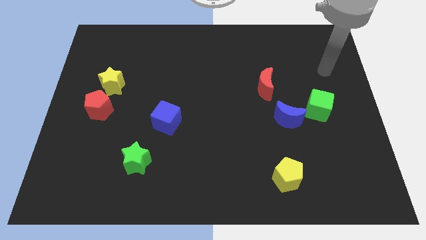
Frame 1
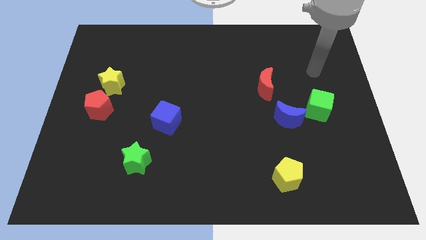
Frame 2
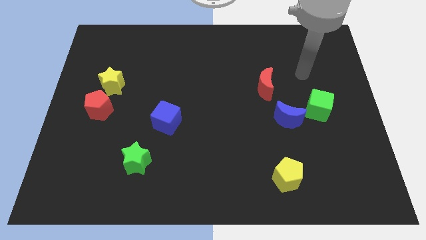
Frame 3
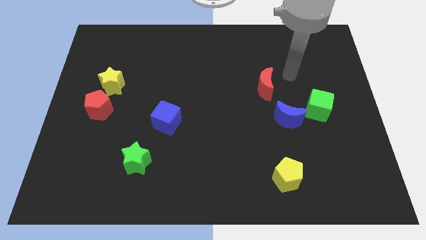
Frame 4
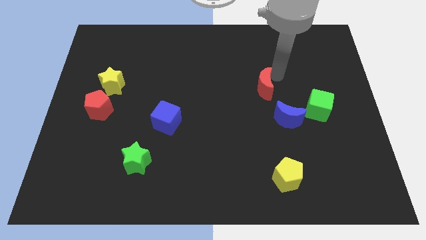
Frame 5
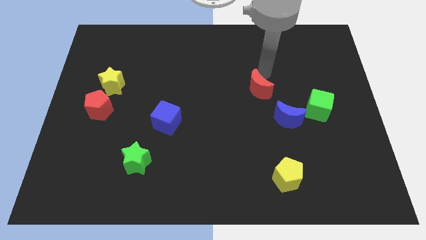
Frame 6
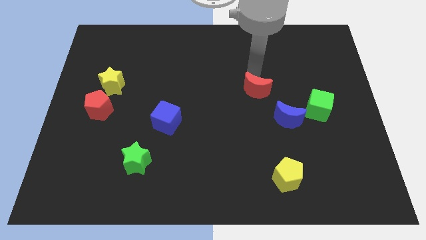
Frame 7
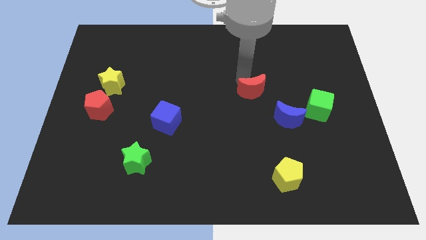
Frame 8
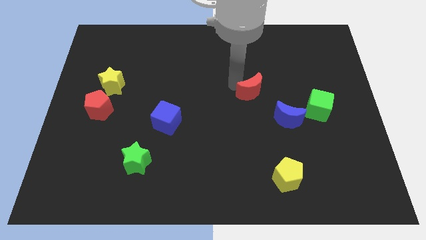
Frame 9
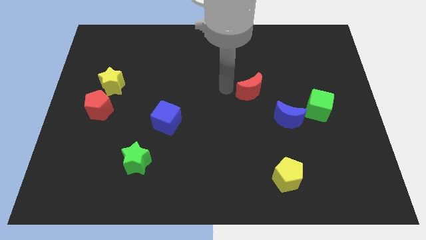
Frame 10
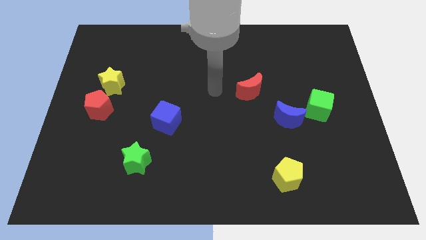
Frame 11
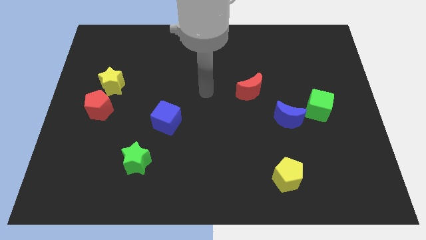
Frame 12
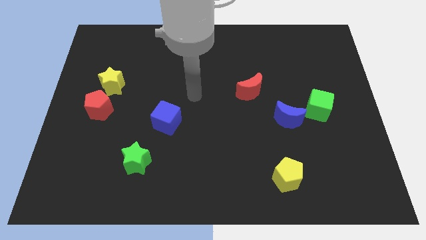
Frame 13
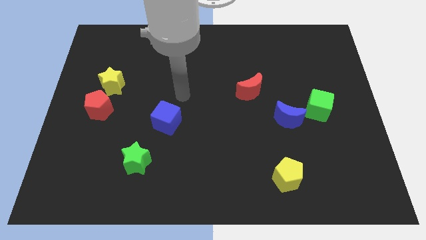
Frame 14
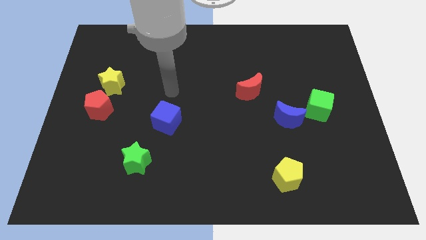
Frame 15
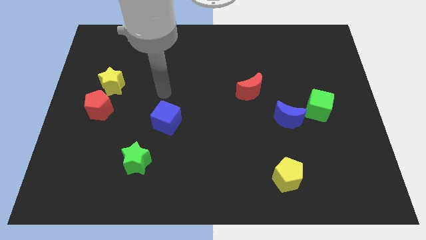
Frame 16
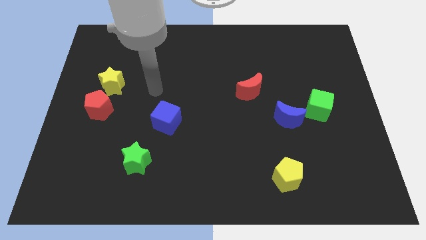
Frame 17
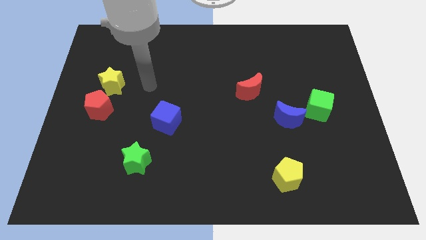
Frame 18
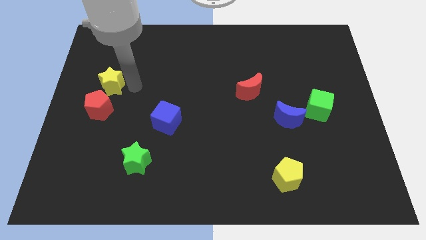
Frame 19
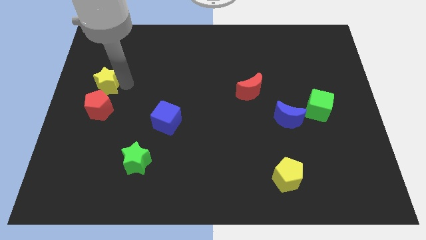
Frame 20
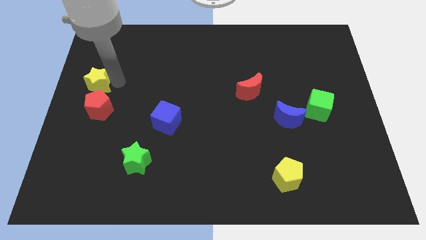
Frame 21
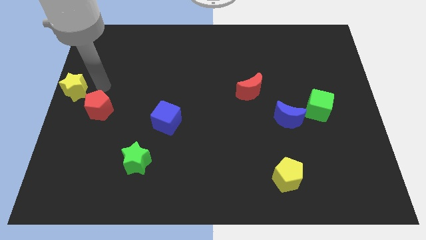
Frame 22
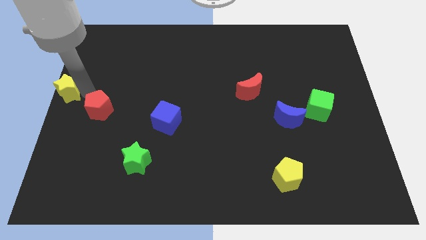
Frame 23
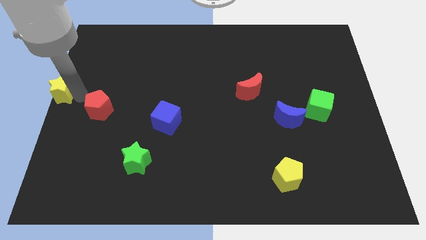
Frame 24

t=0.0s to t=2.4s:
move the red pentagon away from the yellow star

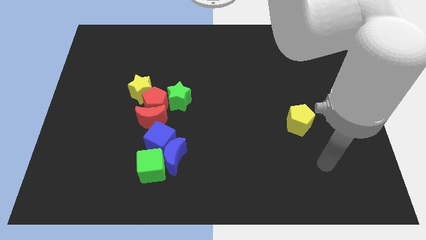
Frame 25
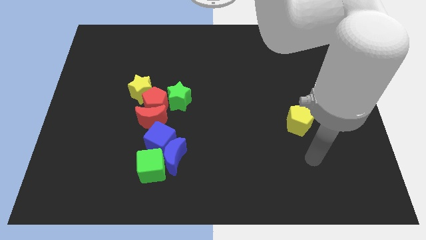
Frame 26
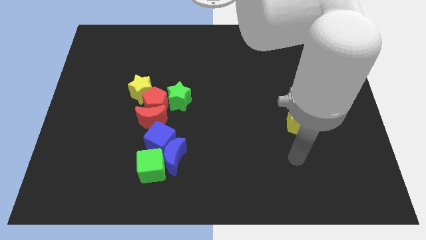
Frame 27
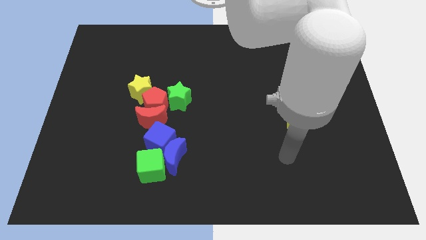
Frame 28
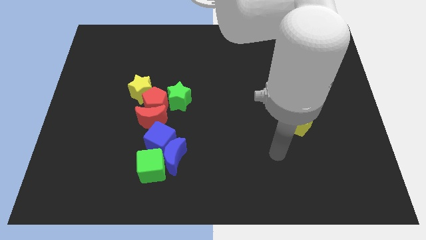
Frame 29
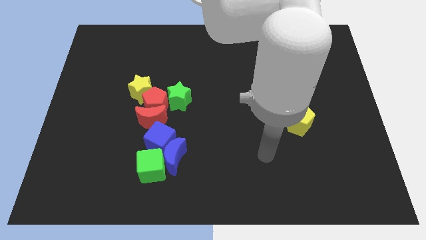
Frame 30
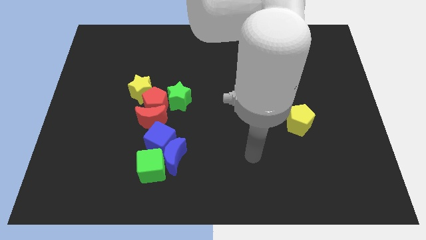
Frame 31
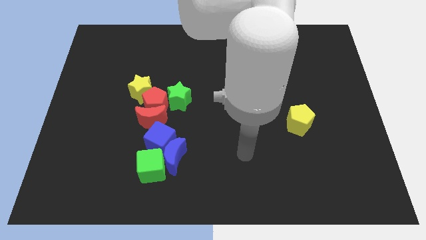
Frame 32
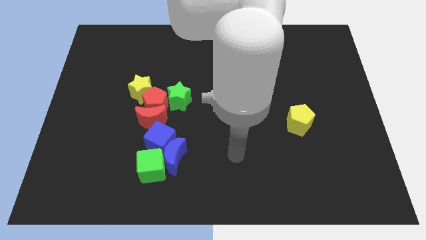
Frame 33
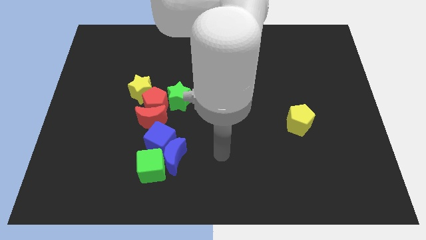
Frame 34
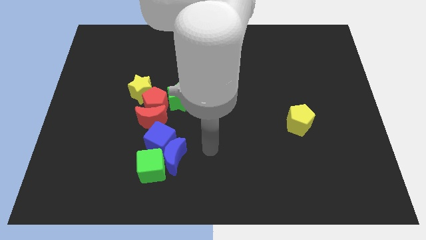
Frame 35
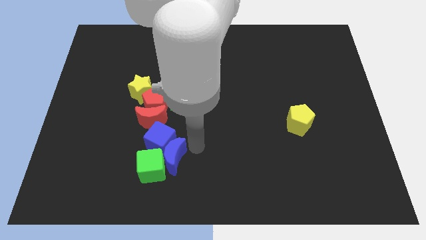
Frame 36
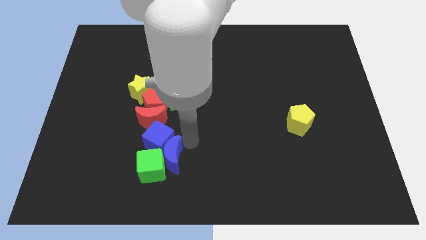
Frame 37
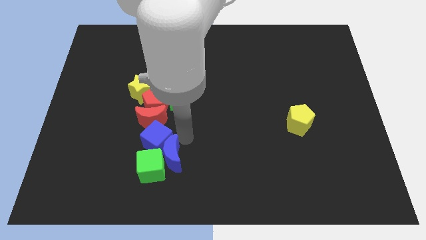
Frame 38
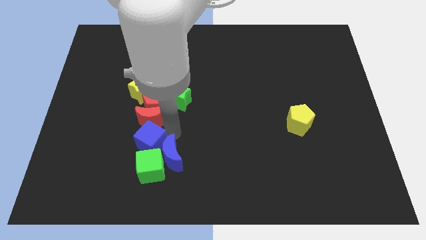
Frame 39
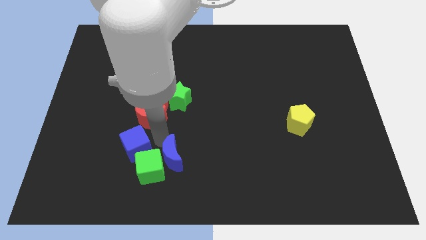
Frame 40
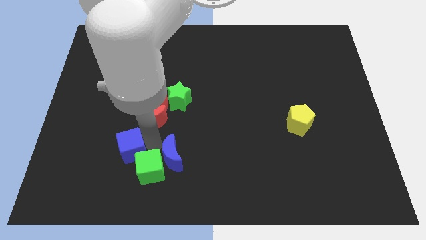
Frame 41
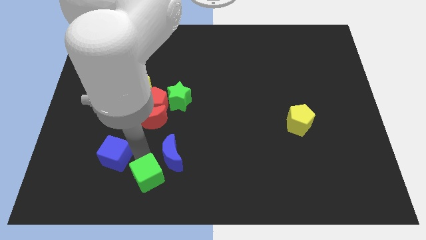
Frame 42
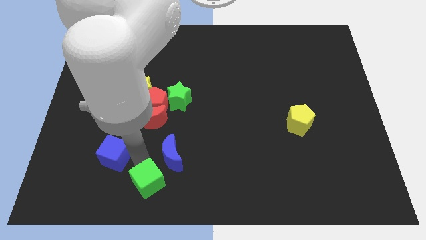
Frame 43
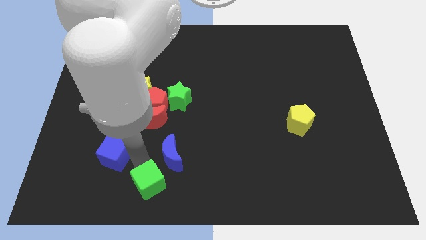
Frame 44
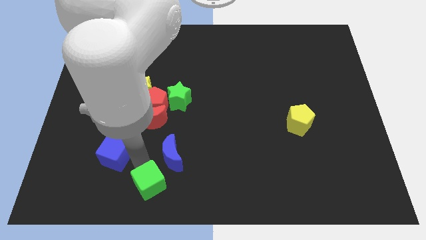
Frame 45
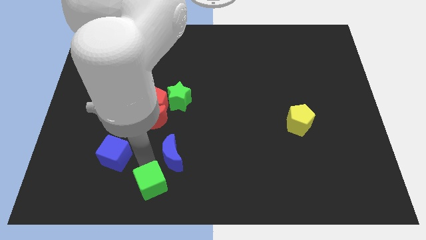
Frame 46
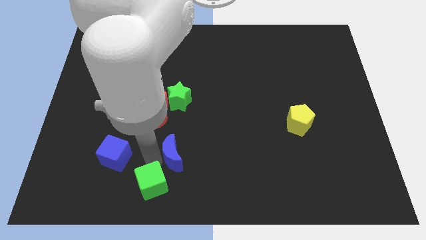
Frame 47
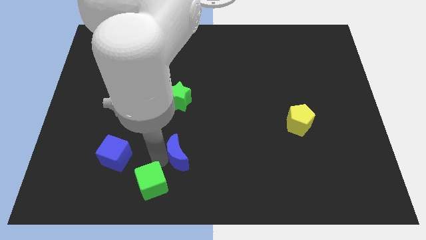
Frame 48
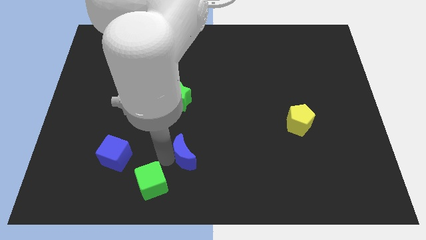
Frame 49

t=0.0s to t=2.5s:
separate the blue moon from the blue cube and green cube

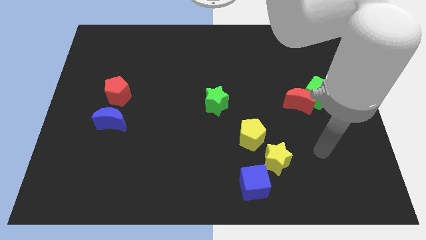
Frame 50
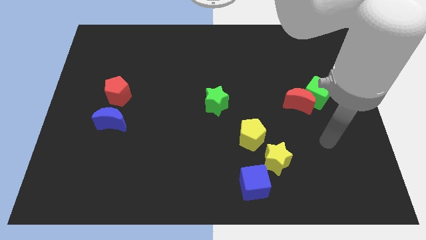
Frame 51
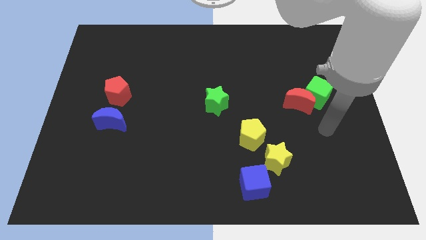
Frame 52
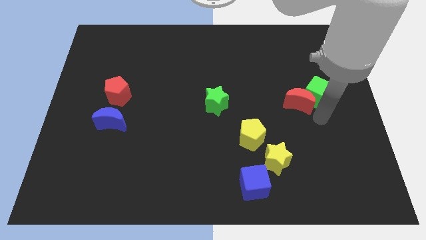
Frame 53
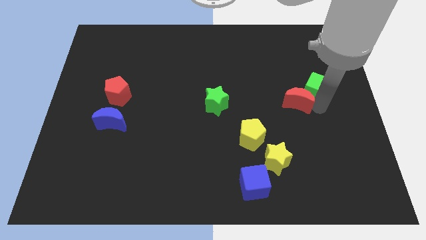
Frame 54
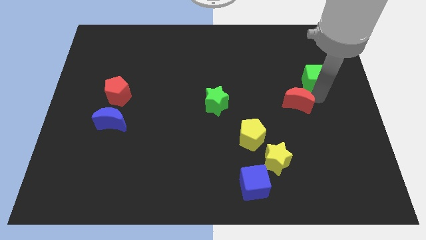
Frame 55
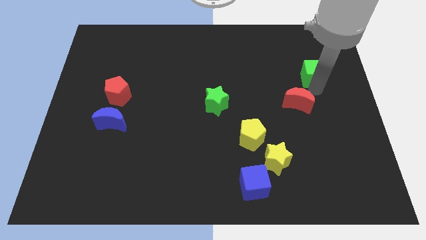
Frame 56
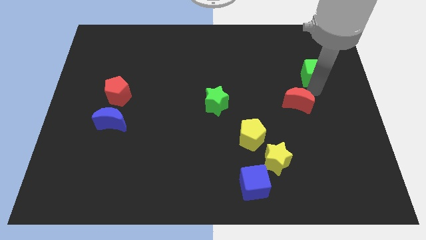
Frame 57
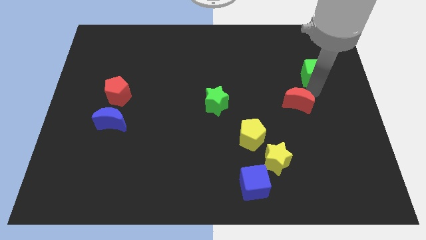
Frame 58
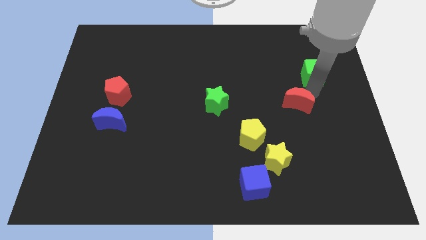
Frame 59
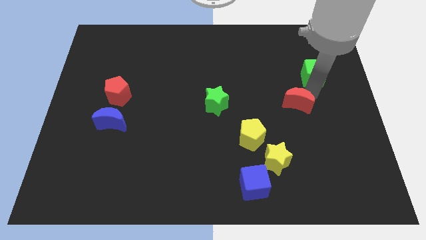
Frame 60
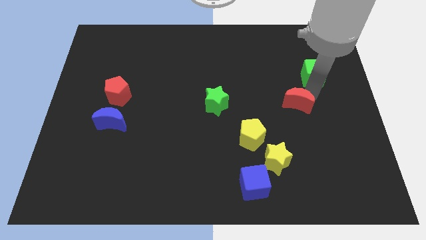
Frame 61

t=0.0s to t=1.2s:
pull the red moon apart from the green cube

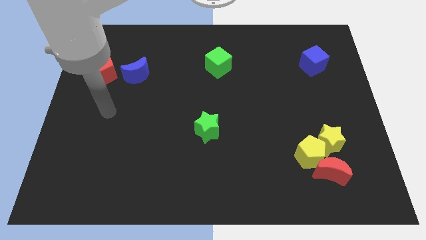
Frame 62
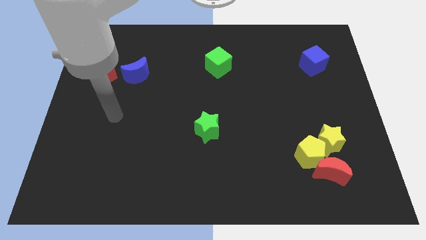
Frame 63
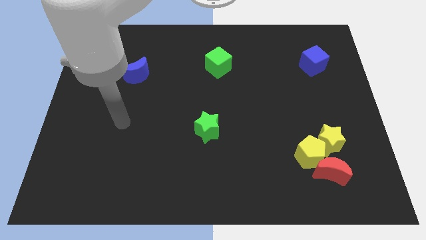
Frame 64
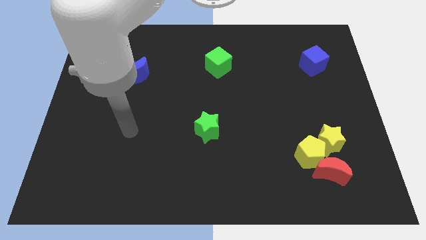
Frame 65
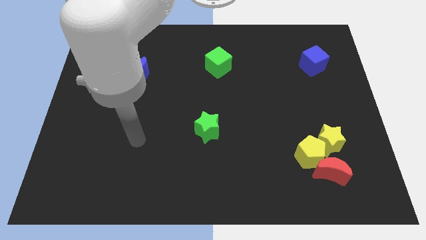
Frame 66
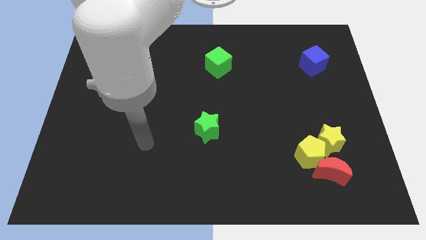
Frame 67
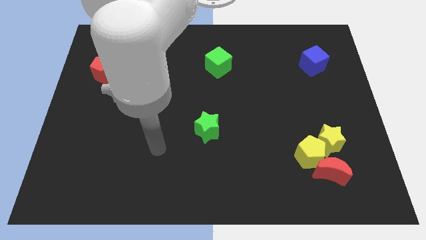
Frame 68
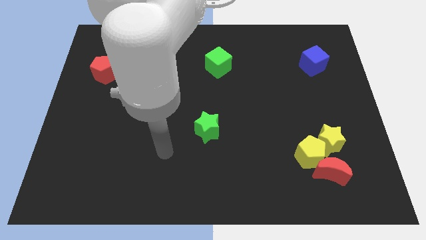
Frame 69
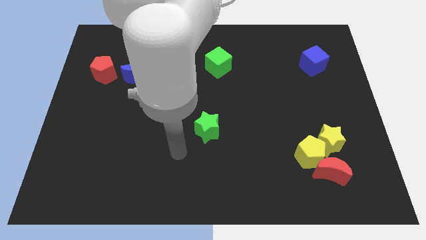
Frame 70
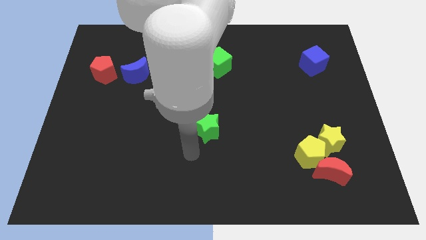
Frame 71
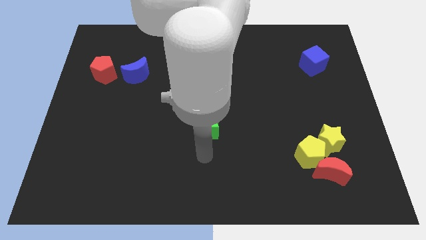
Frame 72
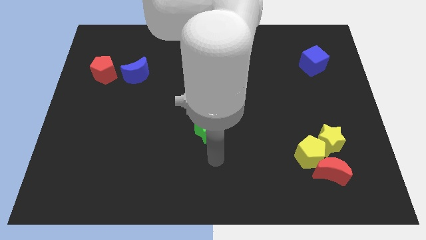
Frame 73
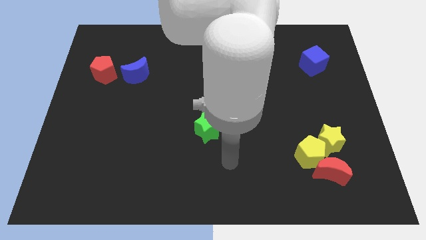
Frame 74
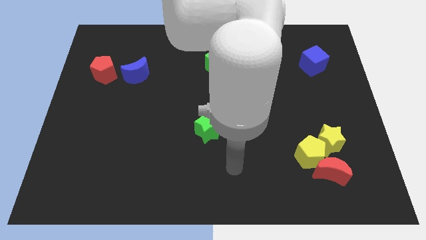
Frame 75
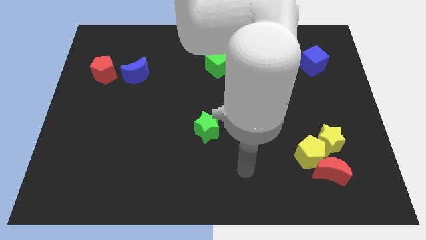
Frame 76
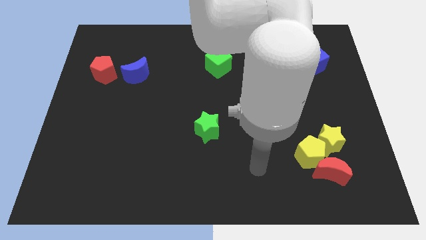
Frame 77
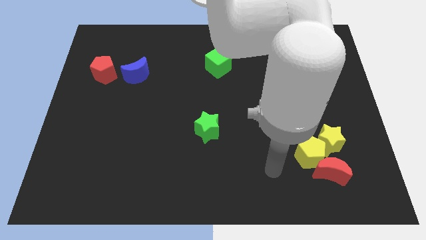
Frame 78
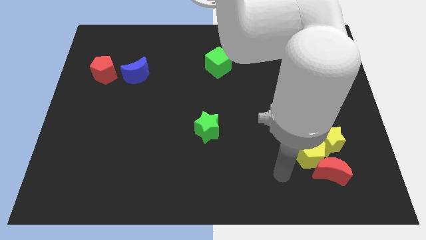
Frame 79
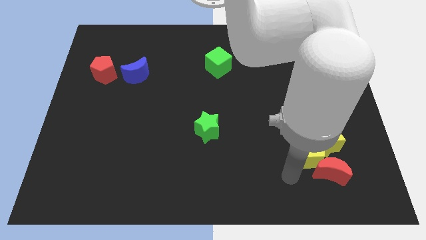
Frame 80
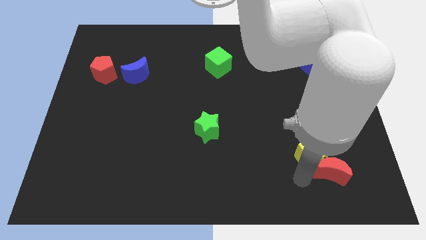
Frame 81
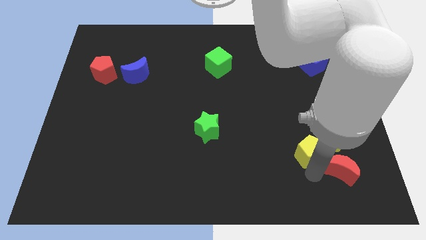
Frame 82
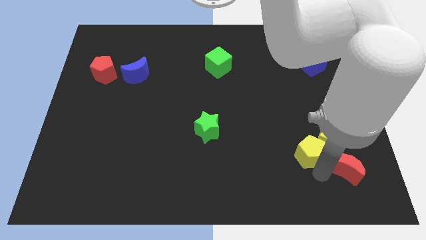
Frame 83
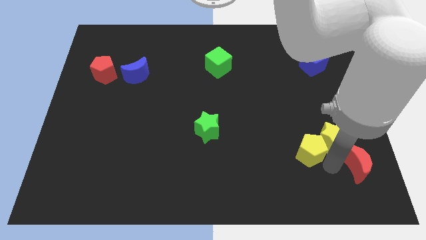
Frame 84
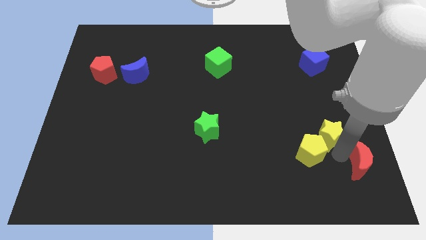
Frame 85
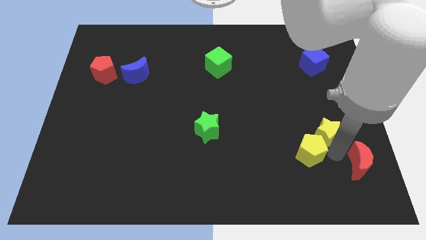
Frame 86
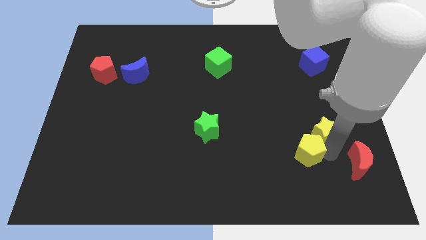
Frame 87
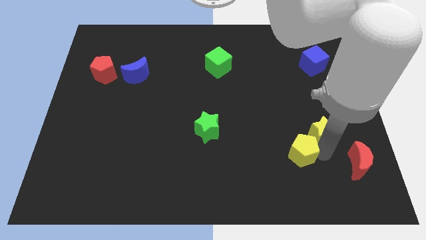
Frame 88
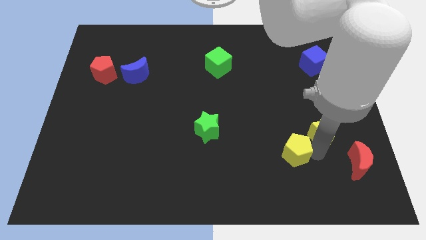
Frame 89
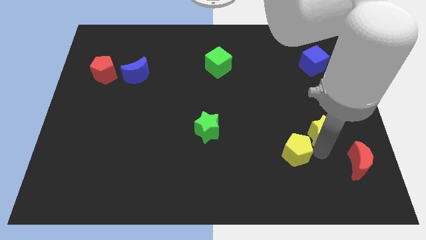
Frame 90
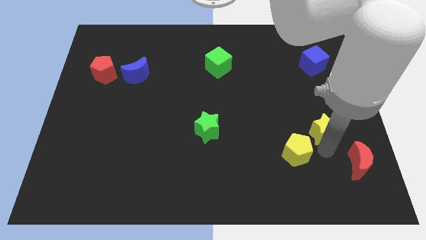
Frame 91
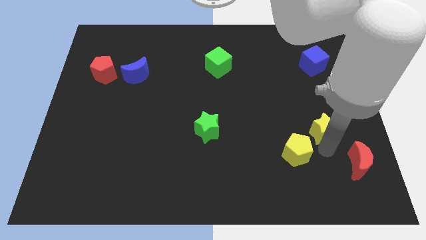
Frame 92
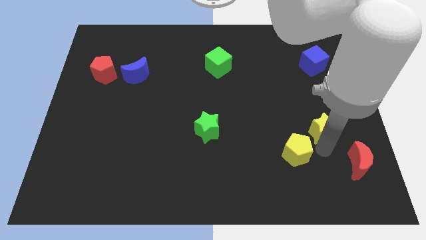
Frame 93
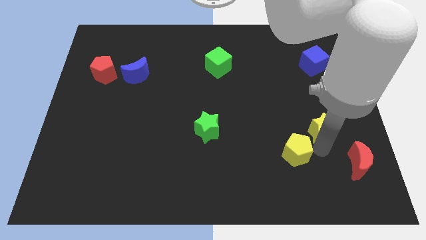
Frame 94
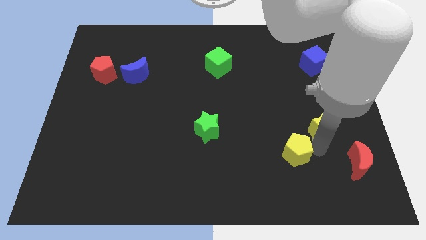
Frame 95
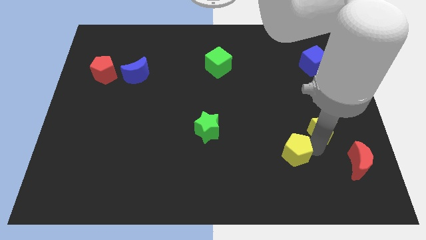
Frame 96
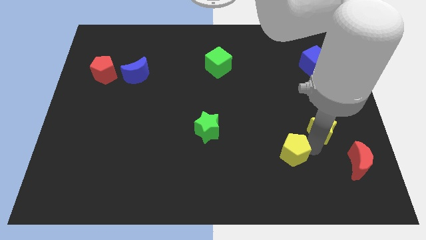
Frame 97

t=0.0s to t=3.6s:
separate the yellow pentagon from the yellow star and red moon
